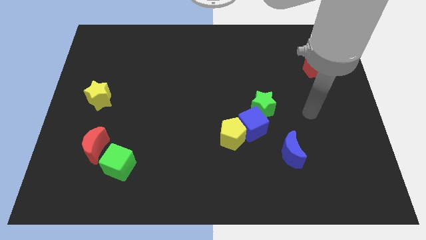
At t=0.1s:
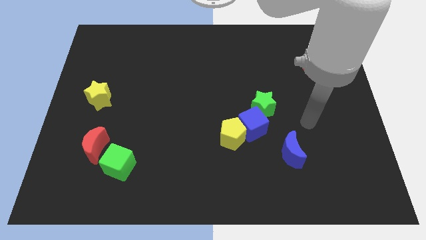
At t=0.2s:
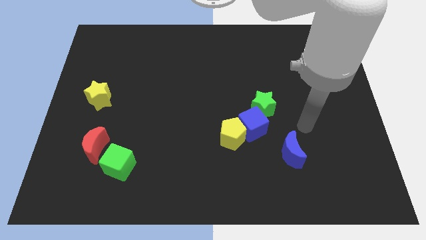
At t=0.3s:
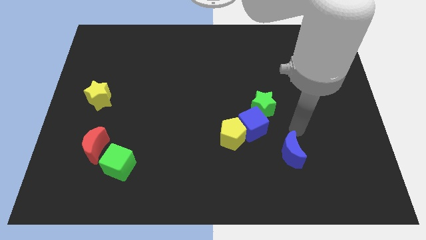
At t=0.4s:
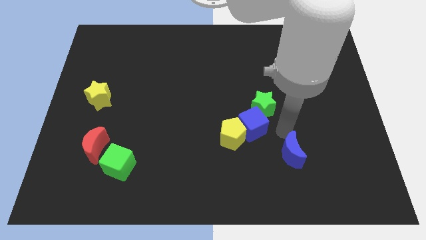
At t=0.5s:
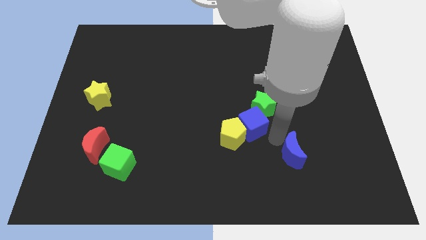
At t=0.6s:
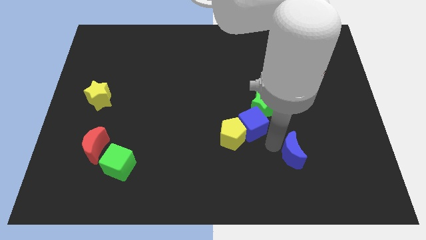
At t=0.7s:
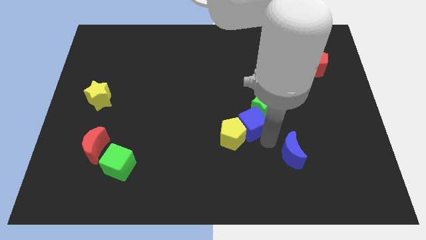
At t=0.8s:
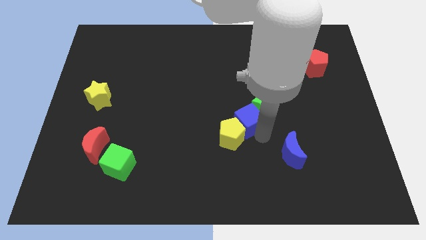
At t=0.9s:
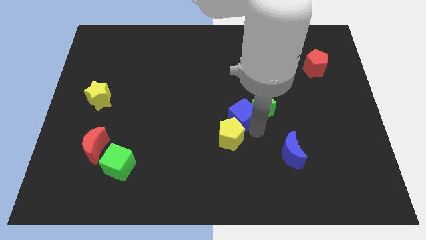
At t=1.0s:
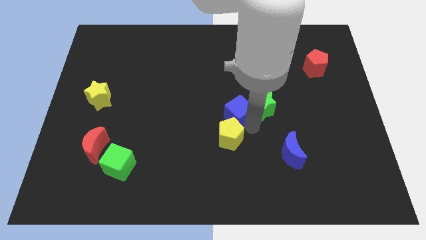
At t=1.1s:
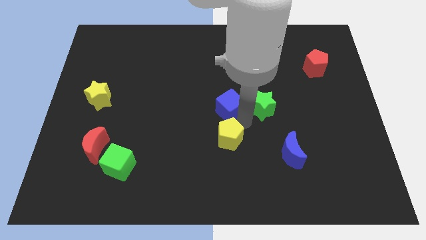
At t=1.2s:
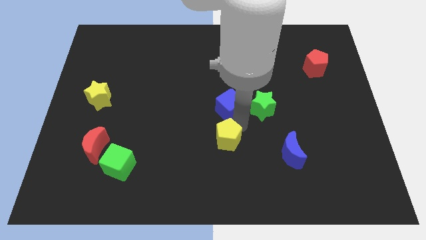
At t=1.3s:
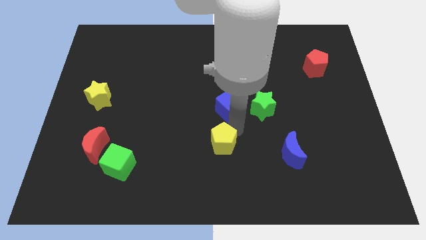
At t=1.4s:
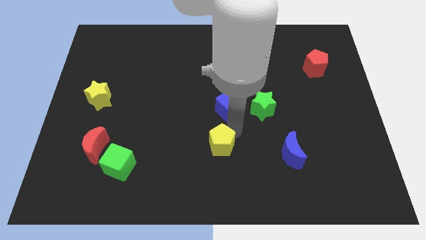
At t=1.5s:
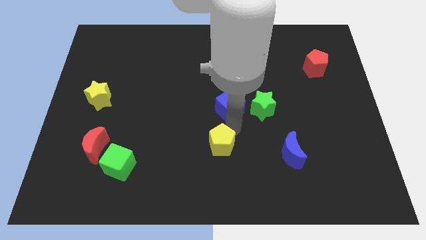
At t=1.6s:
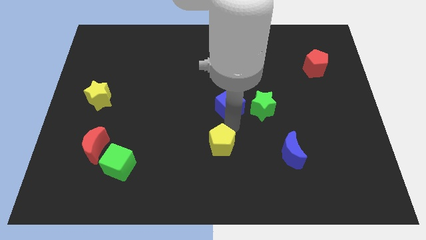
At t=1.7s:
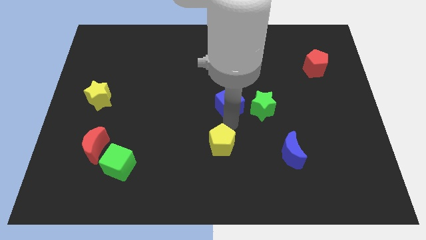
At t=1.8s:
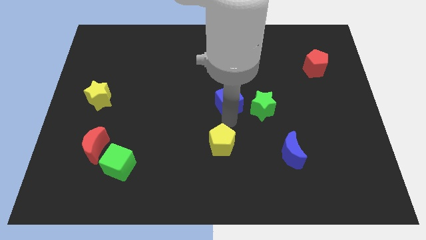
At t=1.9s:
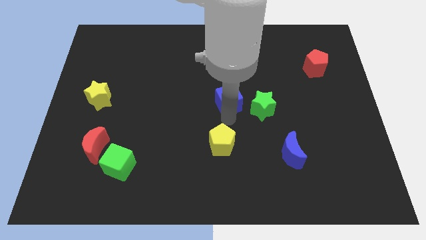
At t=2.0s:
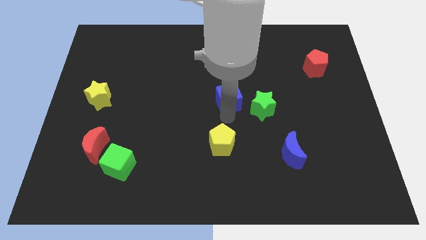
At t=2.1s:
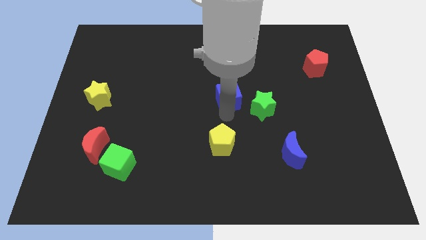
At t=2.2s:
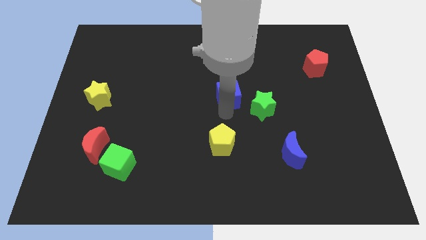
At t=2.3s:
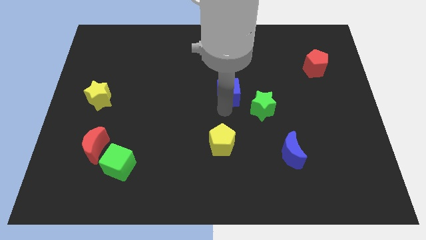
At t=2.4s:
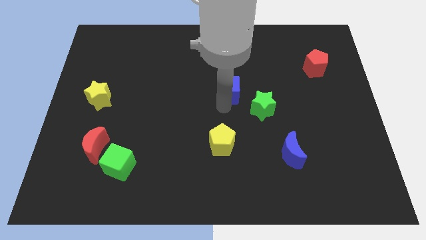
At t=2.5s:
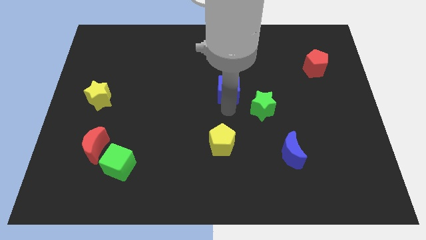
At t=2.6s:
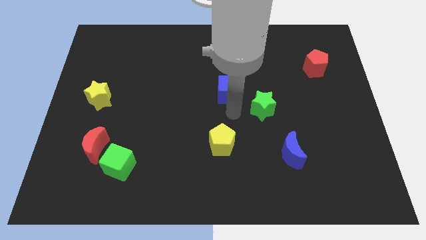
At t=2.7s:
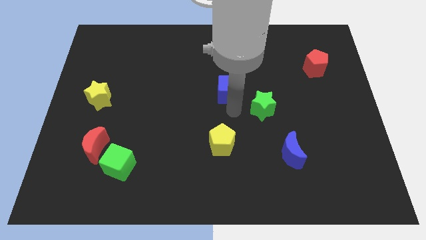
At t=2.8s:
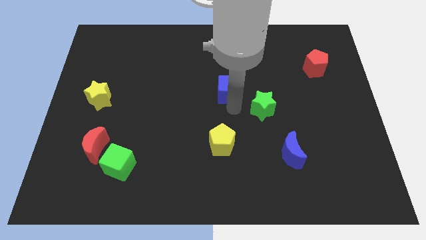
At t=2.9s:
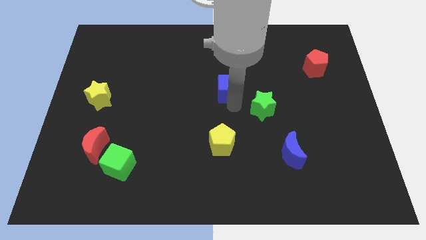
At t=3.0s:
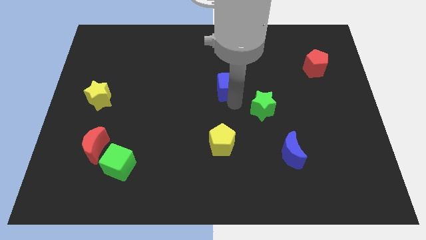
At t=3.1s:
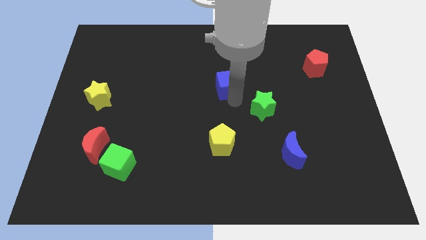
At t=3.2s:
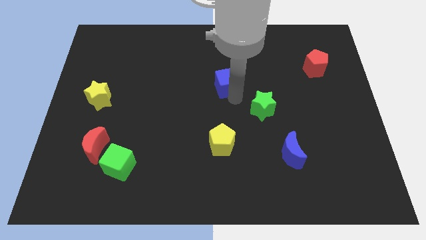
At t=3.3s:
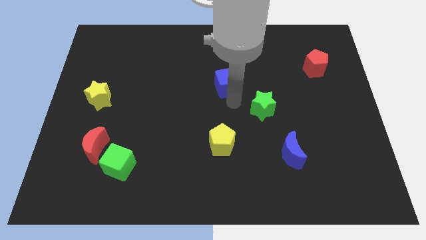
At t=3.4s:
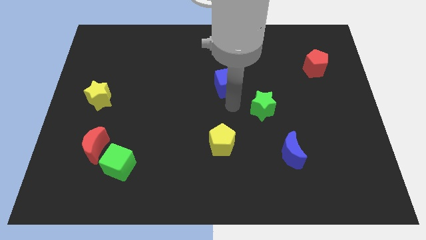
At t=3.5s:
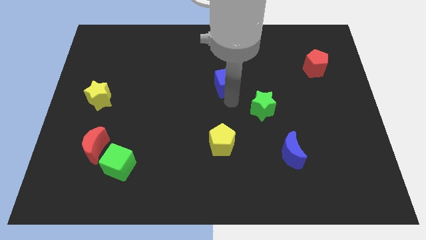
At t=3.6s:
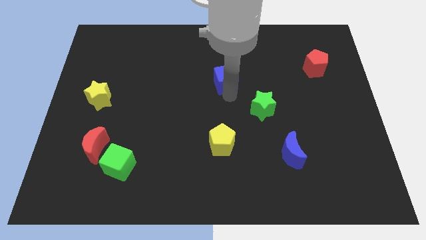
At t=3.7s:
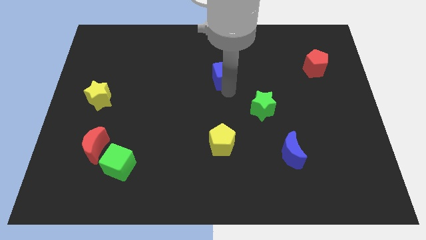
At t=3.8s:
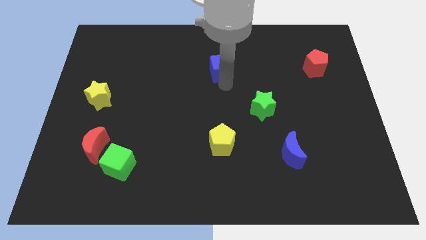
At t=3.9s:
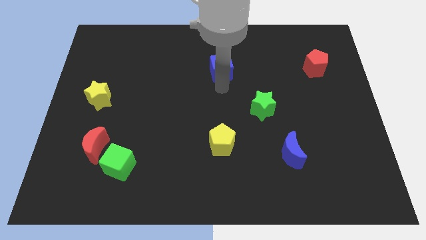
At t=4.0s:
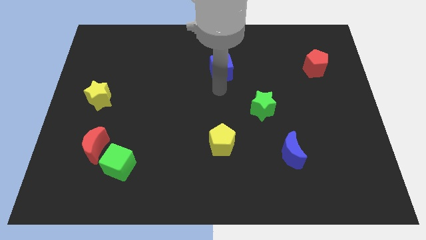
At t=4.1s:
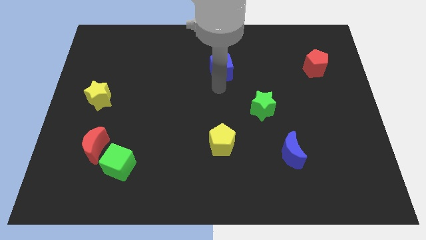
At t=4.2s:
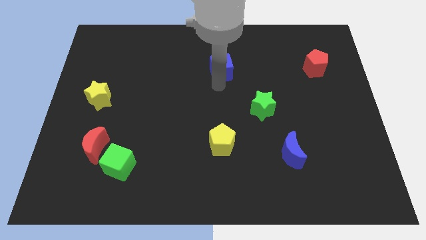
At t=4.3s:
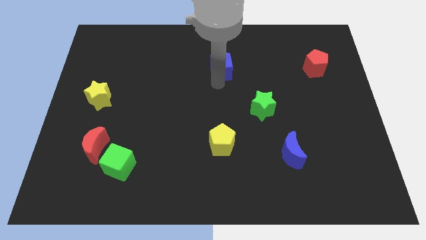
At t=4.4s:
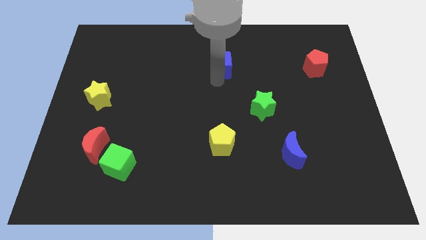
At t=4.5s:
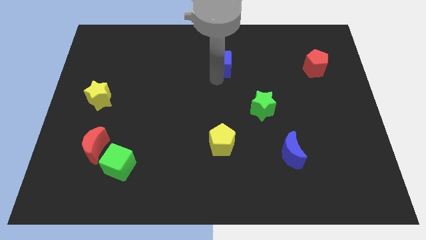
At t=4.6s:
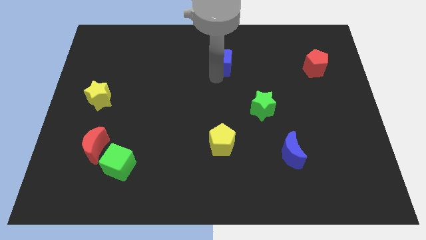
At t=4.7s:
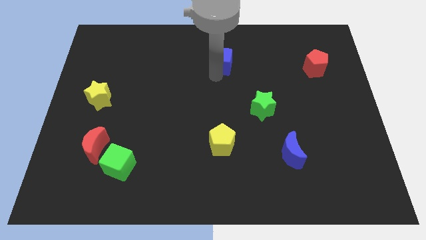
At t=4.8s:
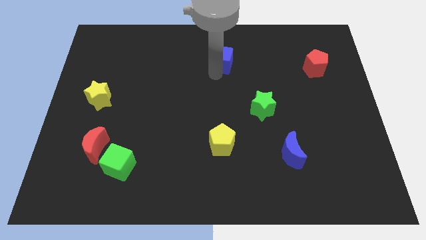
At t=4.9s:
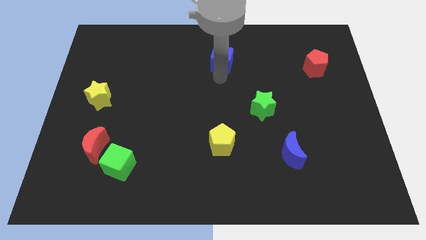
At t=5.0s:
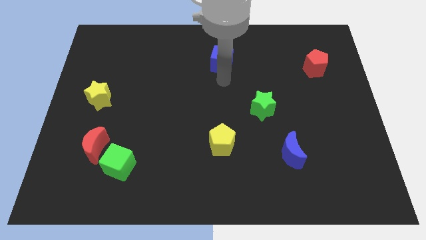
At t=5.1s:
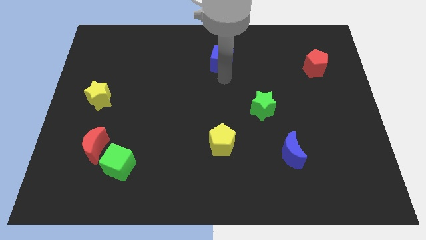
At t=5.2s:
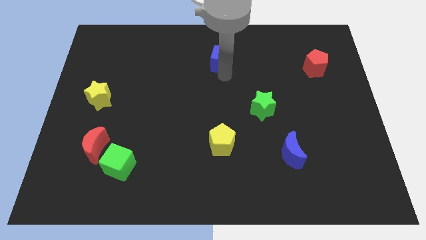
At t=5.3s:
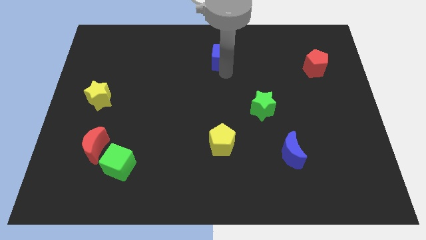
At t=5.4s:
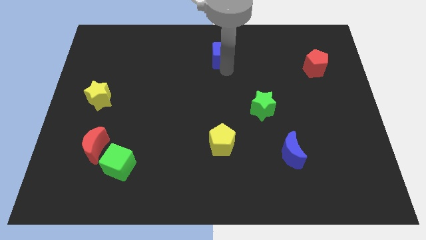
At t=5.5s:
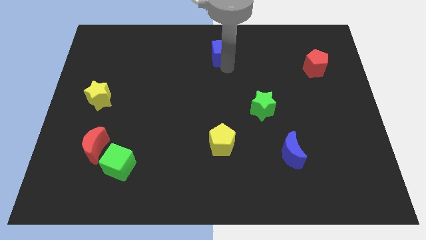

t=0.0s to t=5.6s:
move the blue cube to the top side
